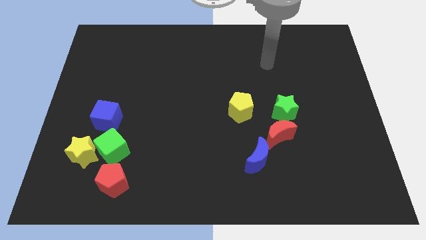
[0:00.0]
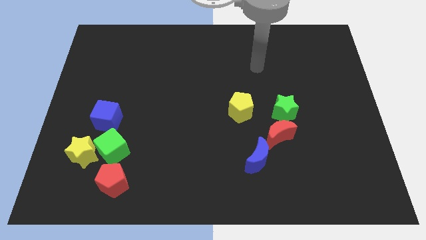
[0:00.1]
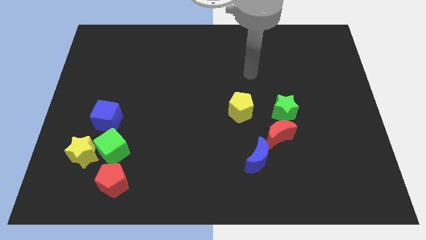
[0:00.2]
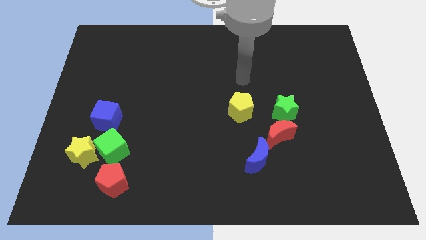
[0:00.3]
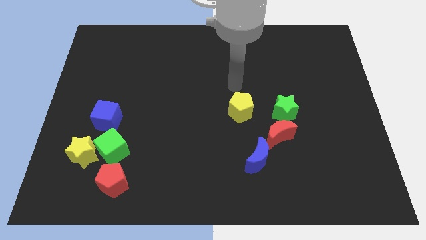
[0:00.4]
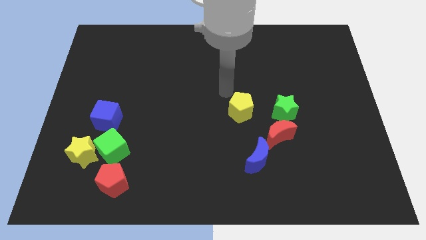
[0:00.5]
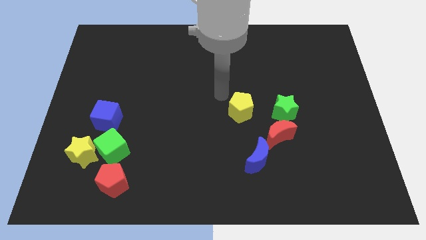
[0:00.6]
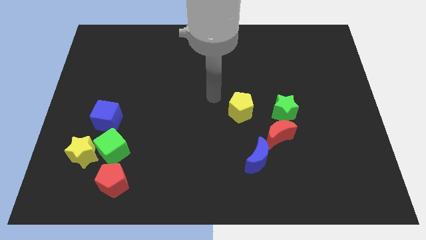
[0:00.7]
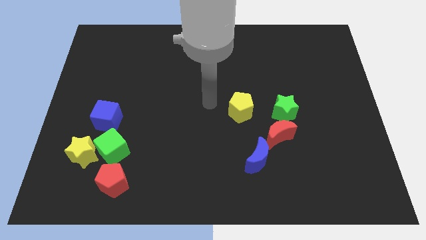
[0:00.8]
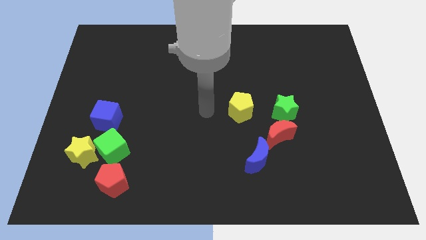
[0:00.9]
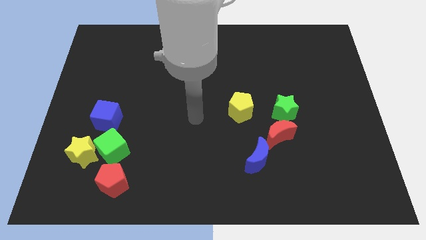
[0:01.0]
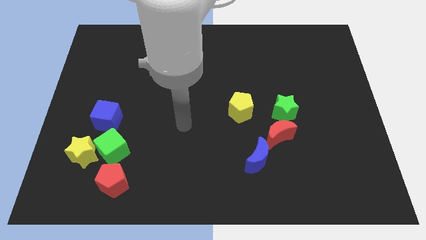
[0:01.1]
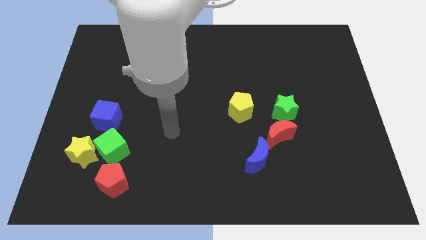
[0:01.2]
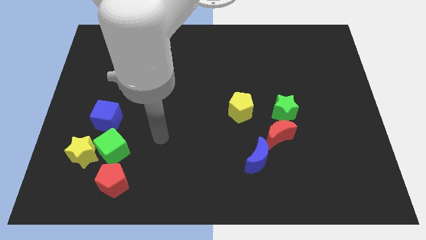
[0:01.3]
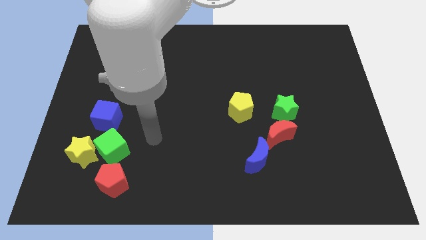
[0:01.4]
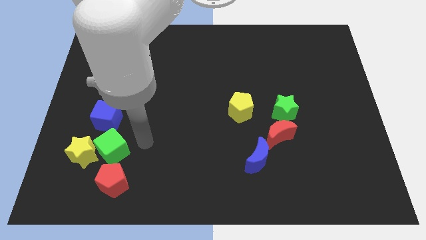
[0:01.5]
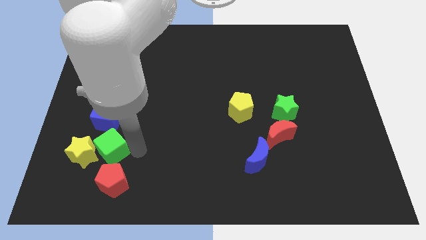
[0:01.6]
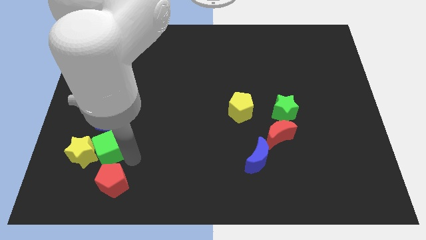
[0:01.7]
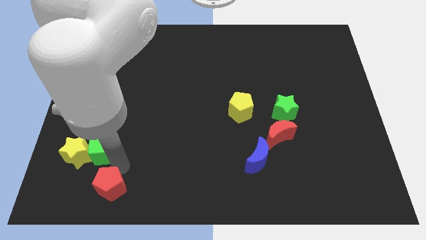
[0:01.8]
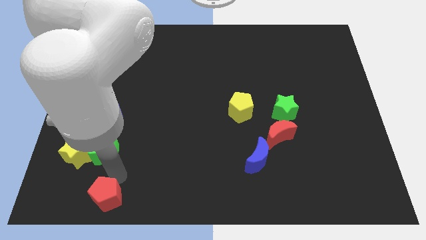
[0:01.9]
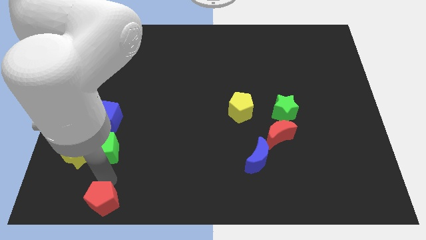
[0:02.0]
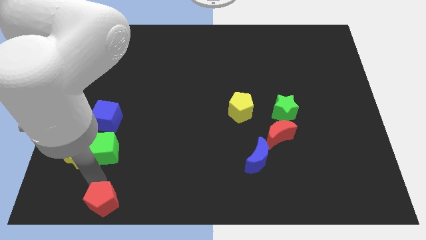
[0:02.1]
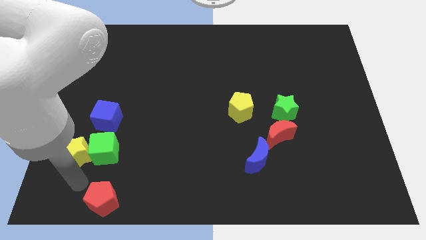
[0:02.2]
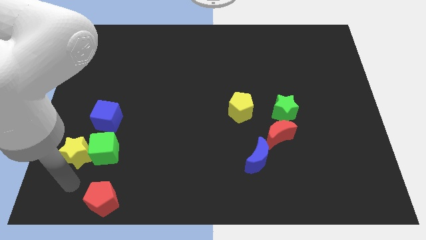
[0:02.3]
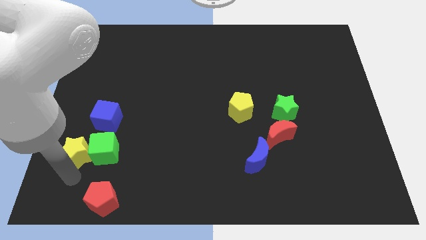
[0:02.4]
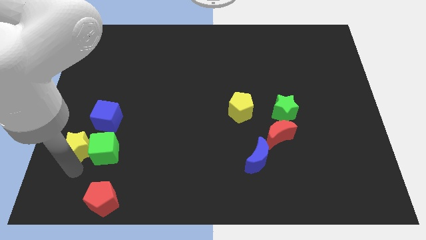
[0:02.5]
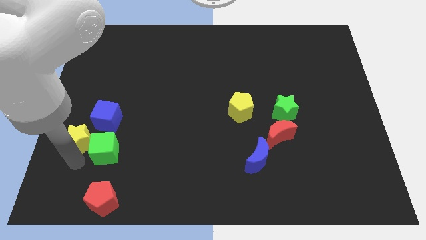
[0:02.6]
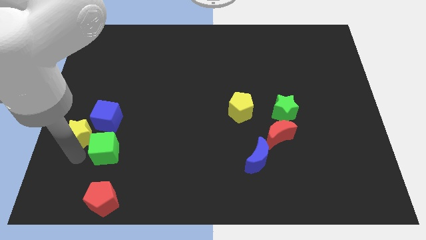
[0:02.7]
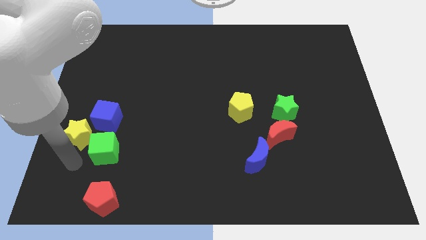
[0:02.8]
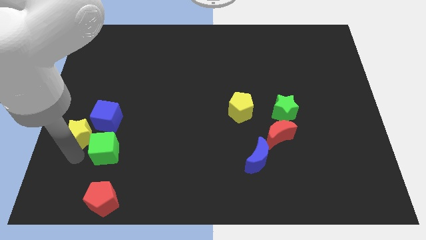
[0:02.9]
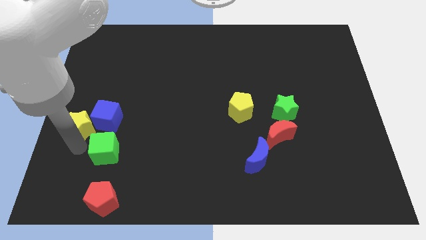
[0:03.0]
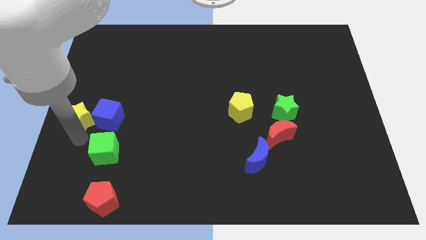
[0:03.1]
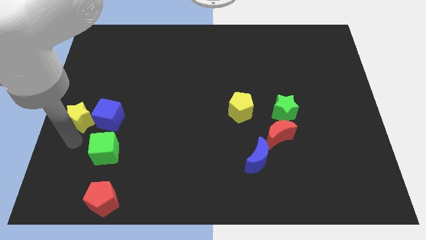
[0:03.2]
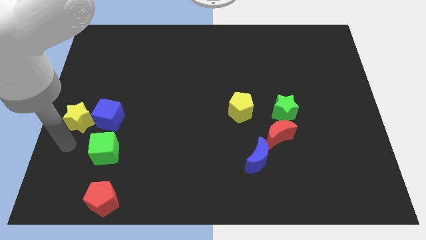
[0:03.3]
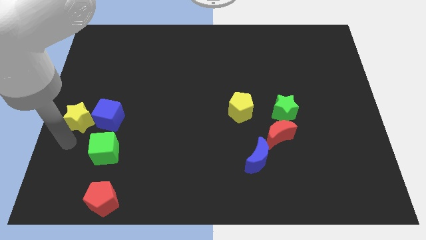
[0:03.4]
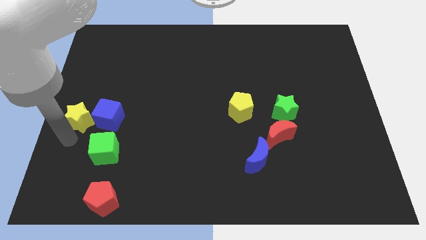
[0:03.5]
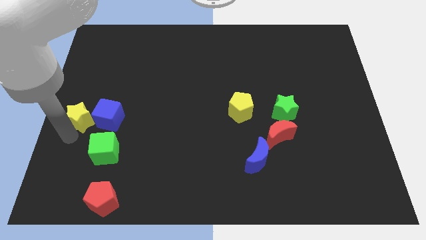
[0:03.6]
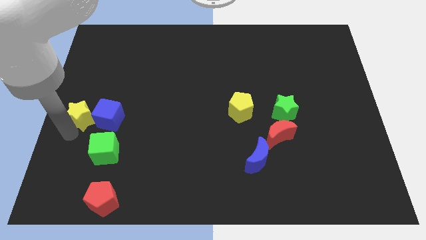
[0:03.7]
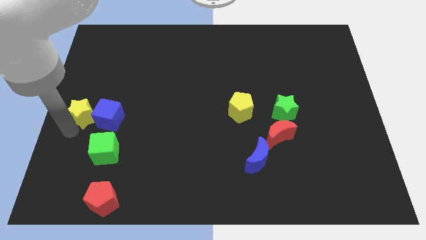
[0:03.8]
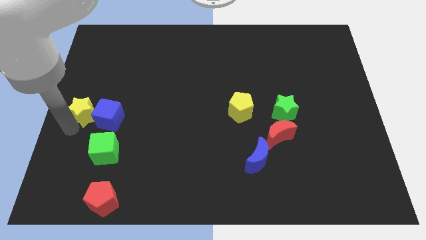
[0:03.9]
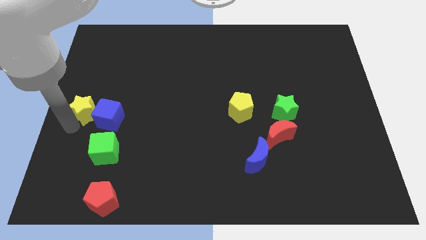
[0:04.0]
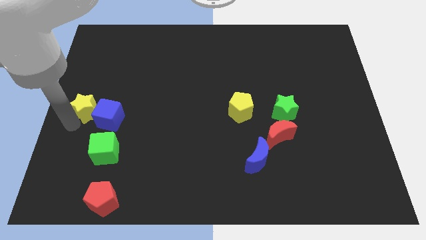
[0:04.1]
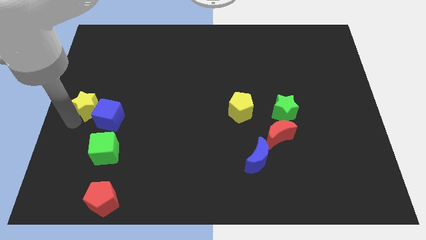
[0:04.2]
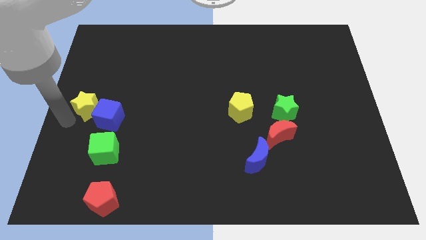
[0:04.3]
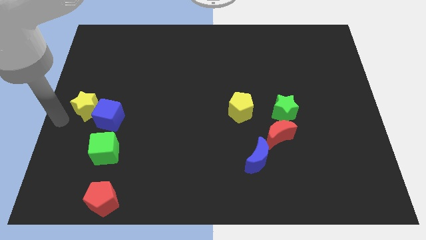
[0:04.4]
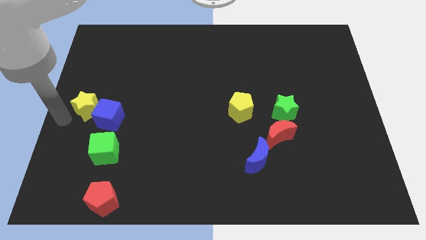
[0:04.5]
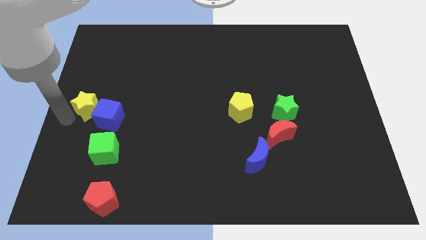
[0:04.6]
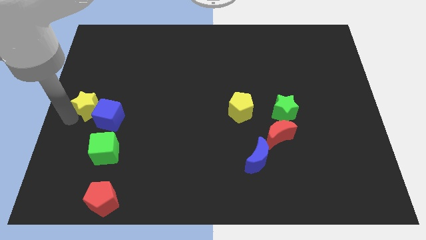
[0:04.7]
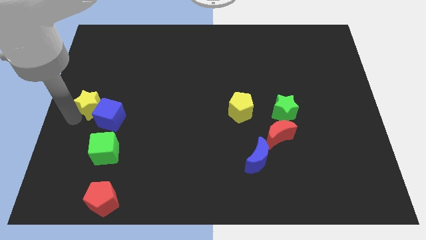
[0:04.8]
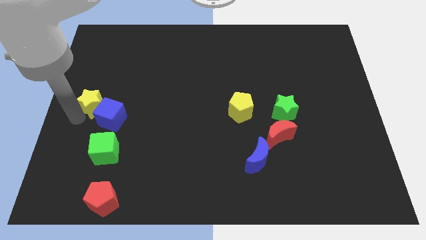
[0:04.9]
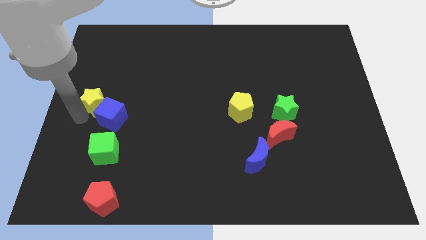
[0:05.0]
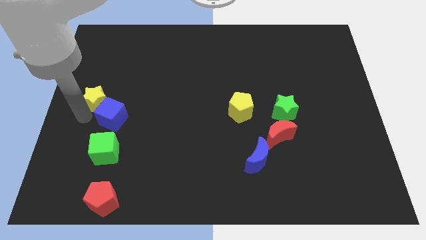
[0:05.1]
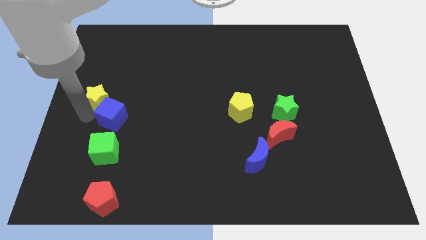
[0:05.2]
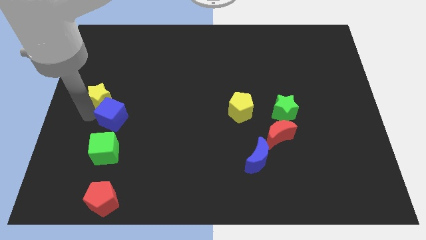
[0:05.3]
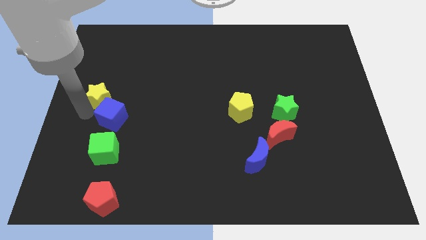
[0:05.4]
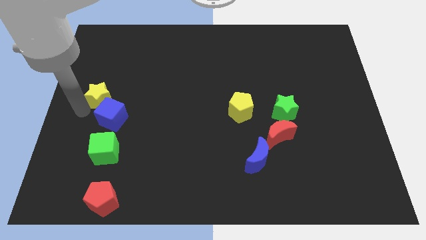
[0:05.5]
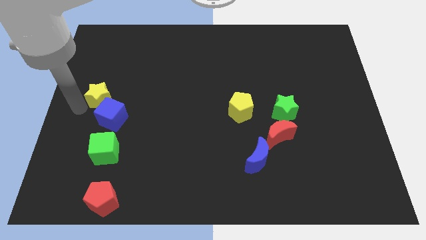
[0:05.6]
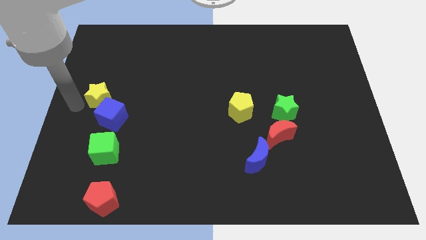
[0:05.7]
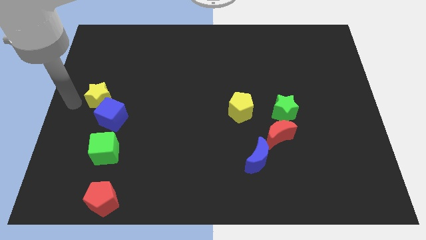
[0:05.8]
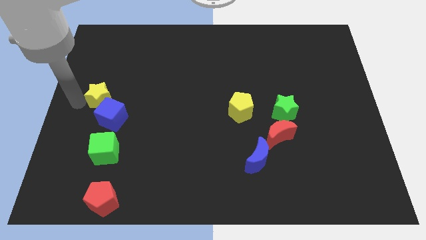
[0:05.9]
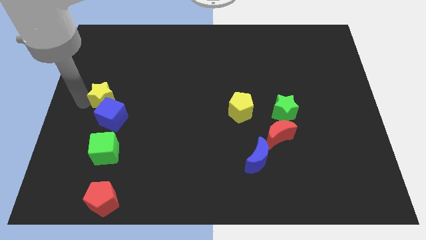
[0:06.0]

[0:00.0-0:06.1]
slightly move the yellow star up and to the right

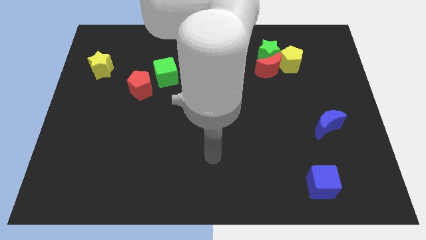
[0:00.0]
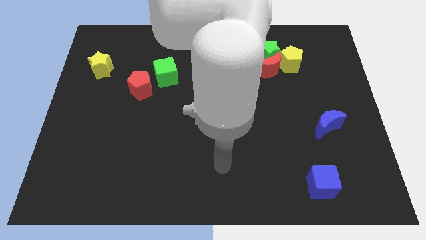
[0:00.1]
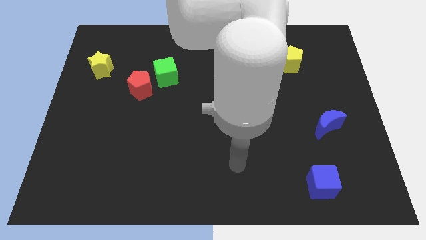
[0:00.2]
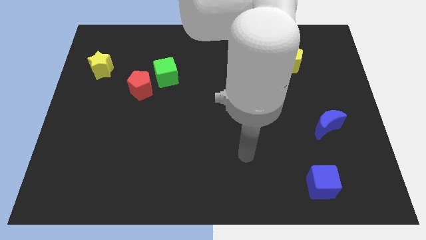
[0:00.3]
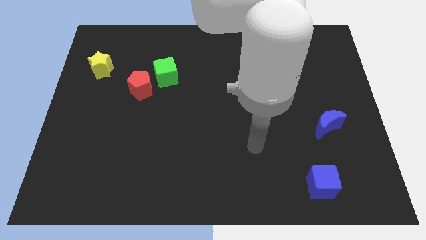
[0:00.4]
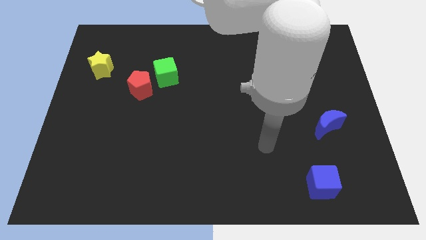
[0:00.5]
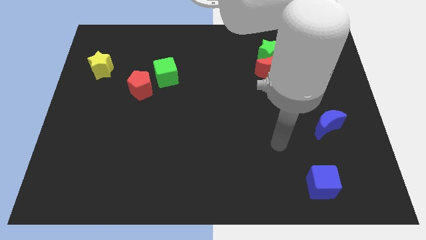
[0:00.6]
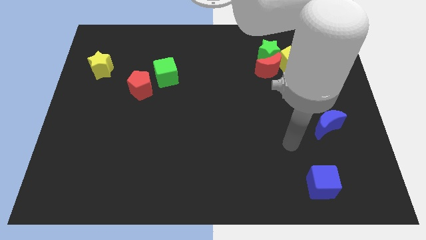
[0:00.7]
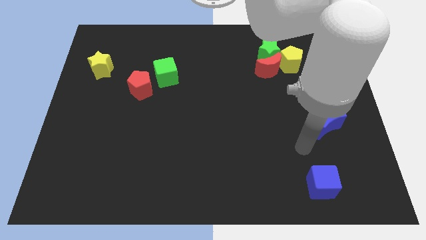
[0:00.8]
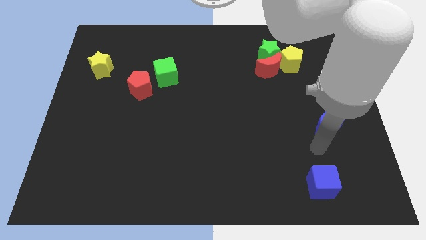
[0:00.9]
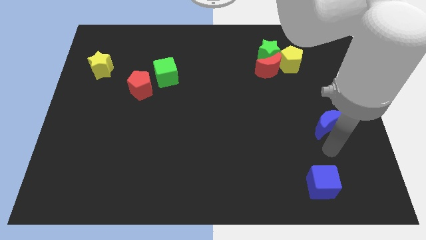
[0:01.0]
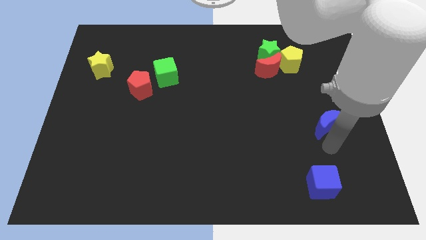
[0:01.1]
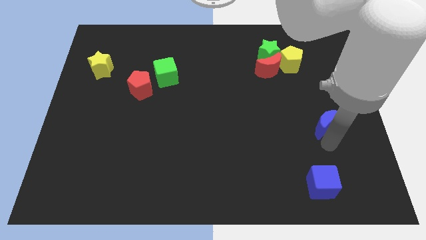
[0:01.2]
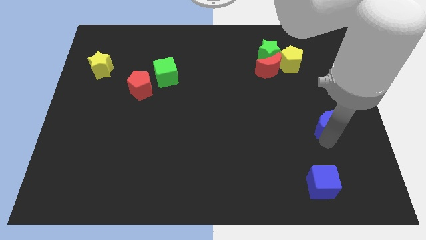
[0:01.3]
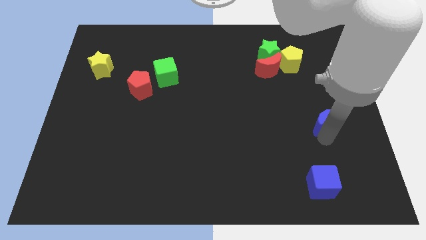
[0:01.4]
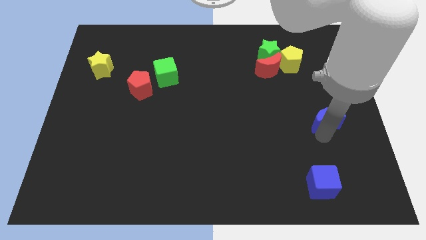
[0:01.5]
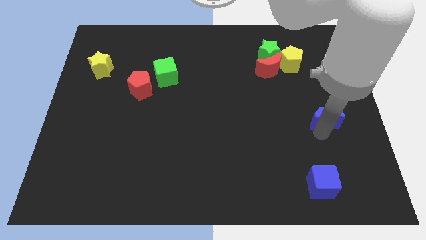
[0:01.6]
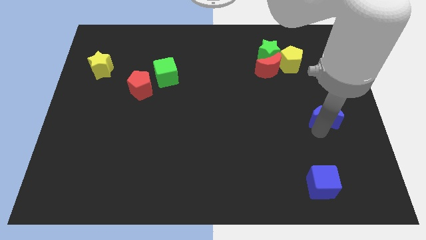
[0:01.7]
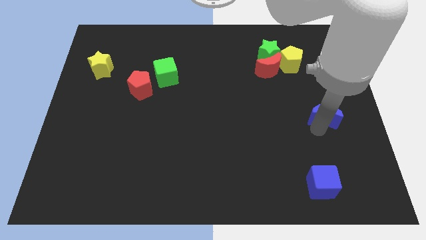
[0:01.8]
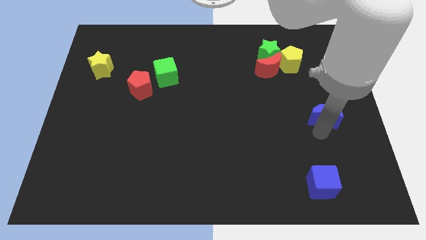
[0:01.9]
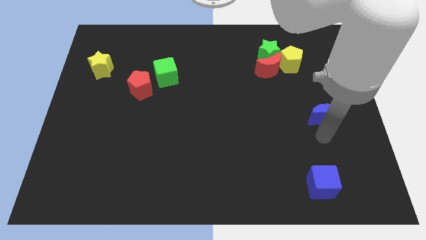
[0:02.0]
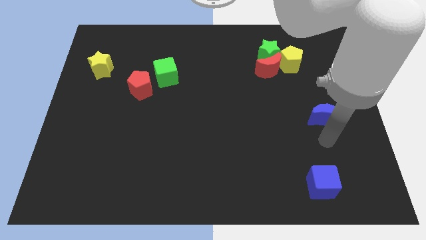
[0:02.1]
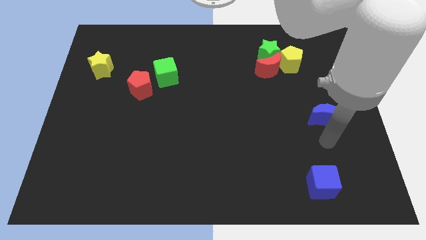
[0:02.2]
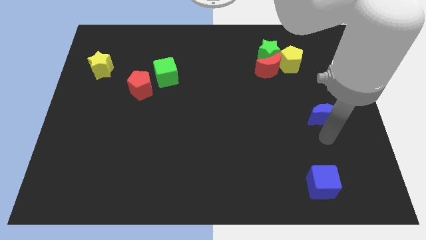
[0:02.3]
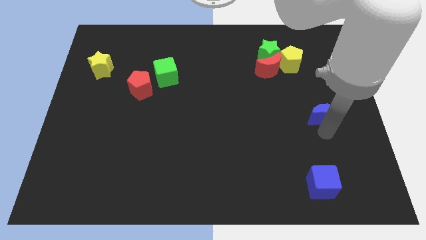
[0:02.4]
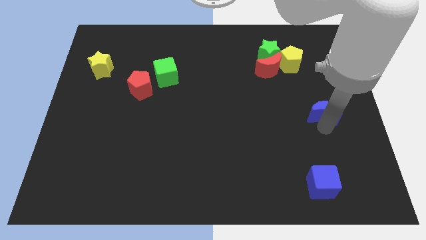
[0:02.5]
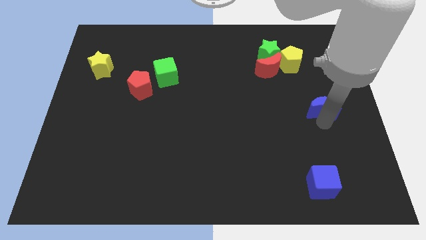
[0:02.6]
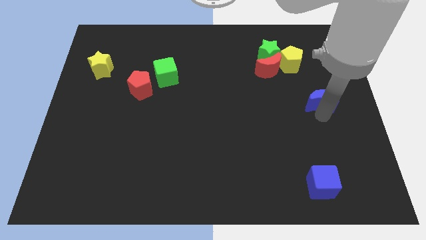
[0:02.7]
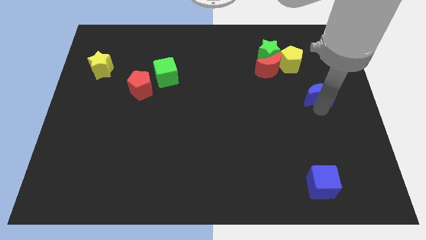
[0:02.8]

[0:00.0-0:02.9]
slightly slide the blue moon upwards
